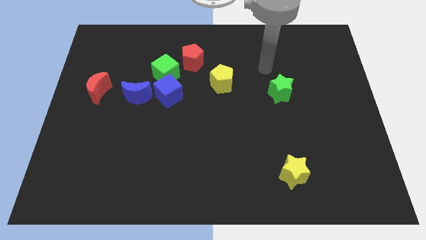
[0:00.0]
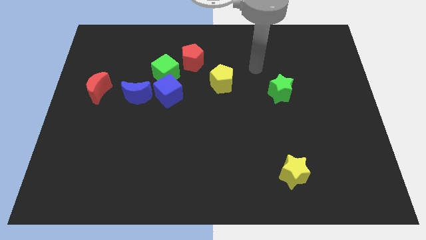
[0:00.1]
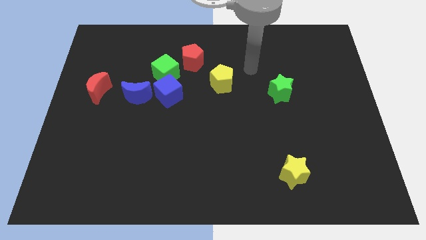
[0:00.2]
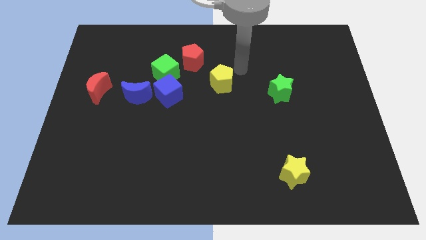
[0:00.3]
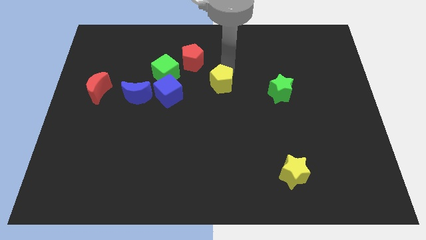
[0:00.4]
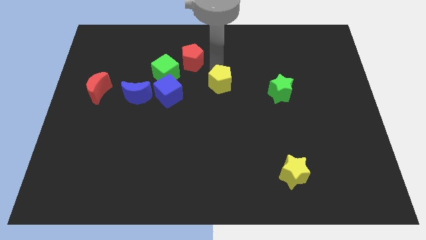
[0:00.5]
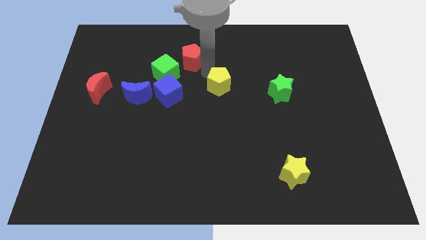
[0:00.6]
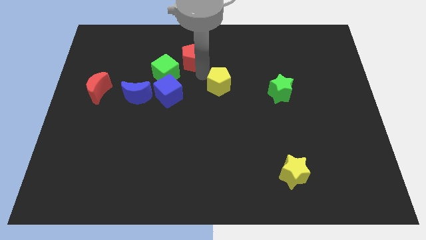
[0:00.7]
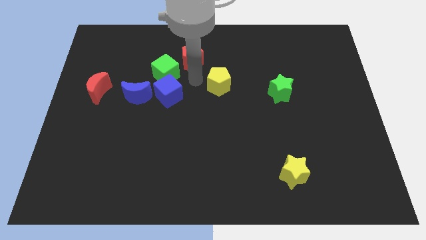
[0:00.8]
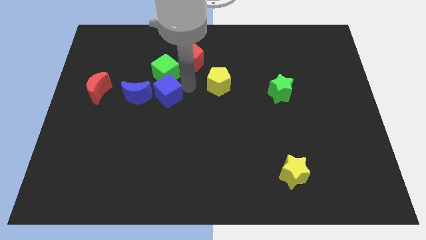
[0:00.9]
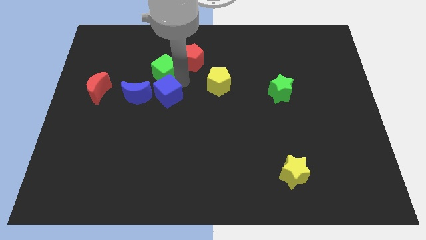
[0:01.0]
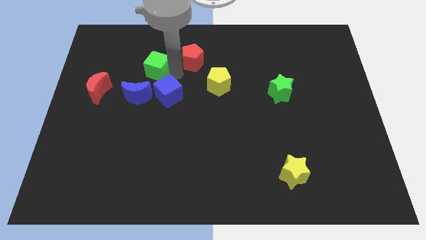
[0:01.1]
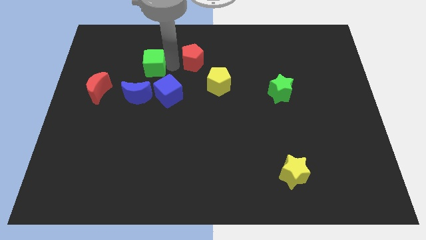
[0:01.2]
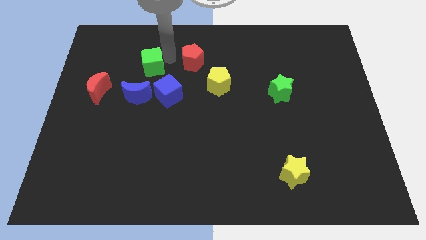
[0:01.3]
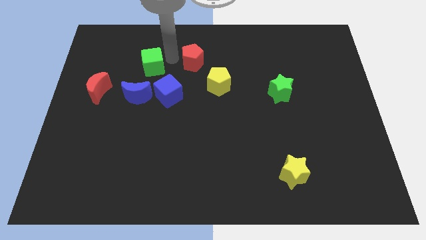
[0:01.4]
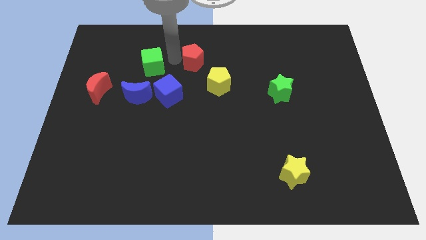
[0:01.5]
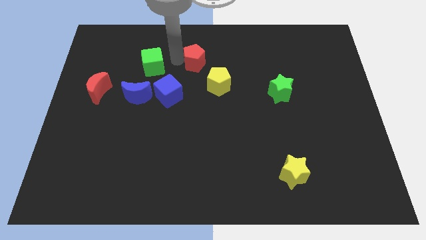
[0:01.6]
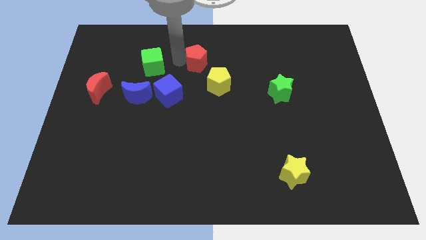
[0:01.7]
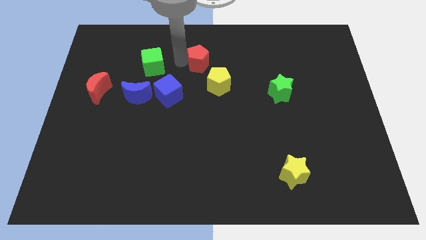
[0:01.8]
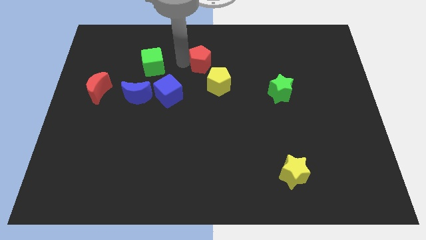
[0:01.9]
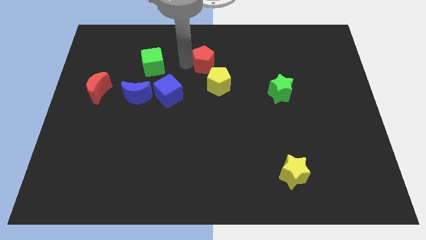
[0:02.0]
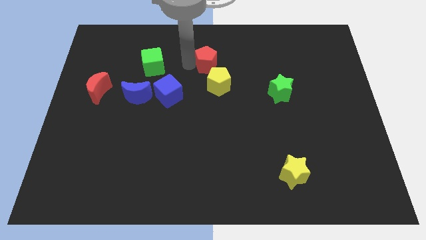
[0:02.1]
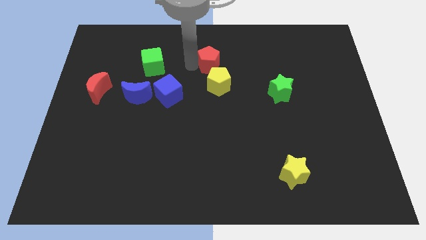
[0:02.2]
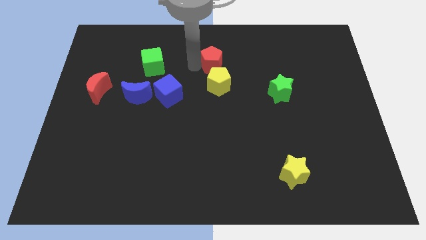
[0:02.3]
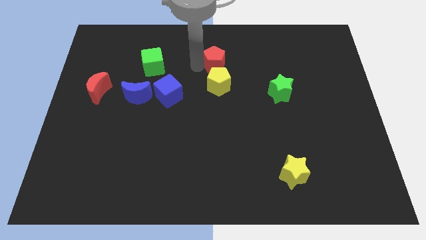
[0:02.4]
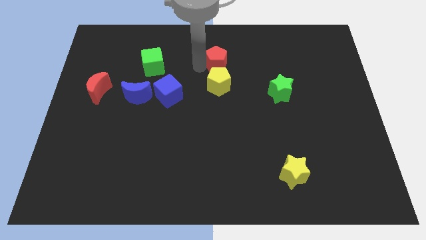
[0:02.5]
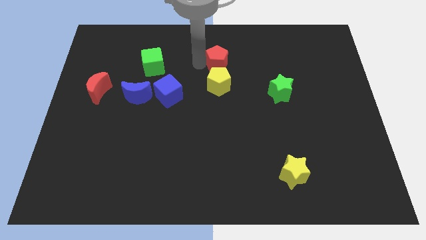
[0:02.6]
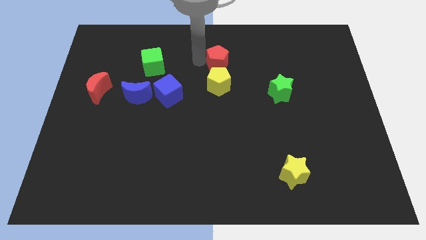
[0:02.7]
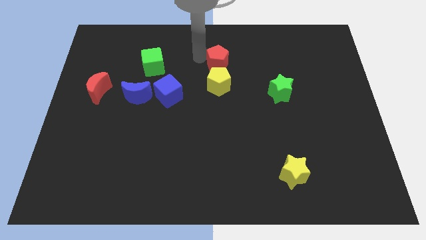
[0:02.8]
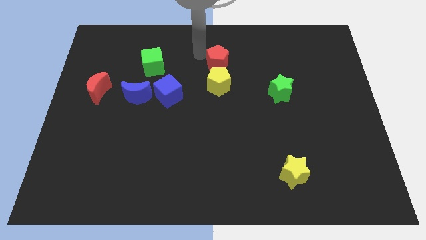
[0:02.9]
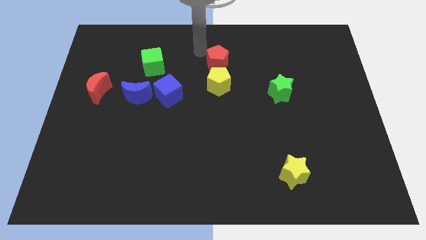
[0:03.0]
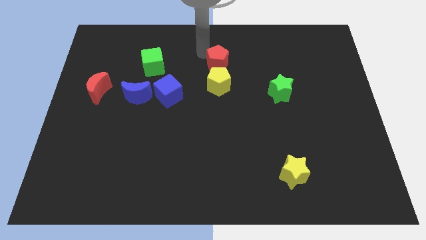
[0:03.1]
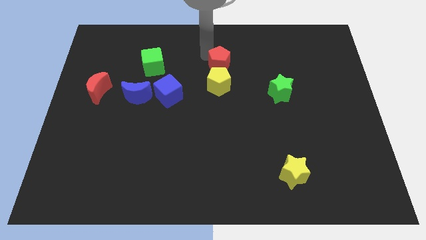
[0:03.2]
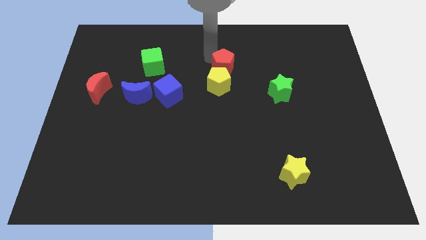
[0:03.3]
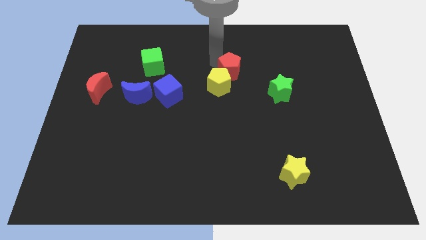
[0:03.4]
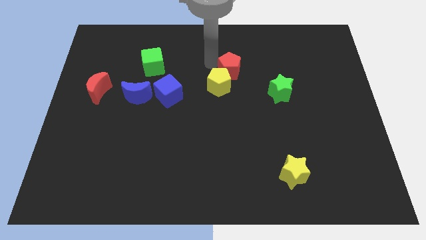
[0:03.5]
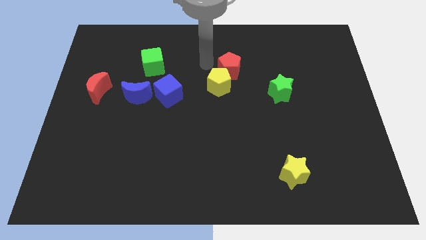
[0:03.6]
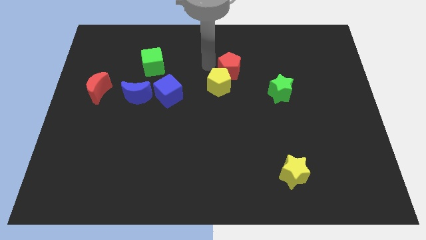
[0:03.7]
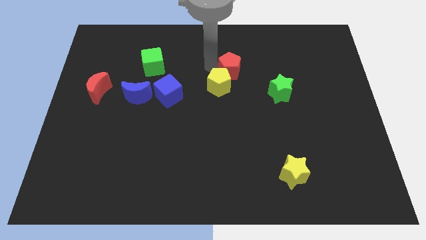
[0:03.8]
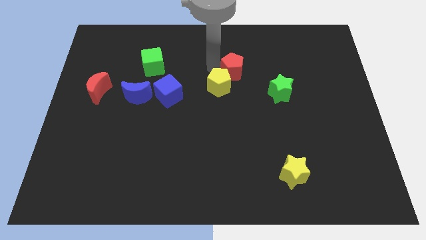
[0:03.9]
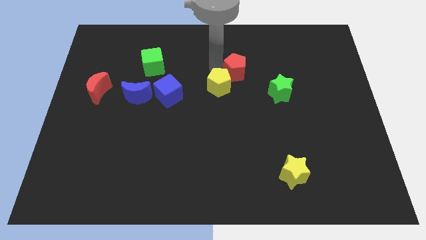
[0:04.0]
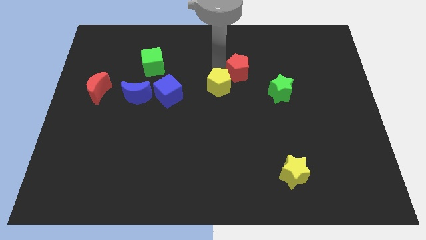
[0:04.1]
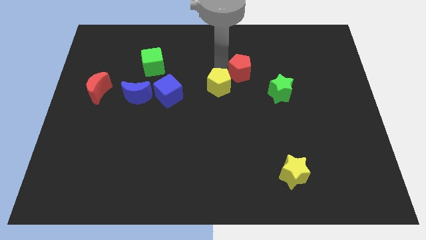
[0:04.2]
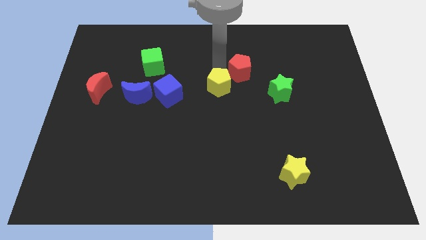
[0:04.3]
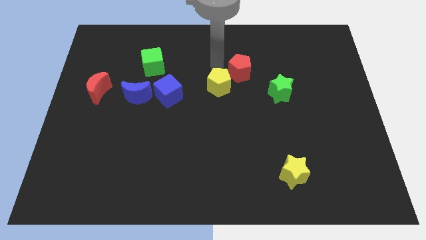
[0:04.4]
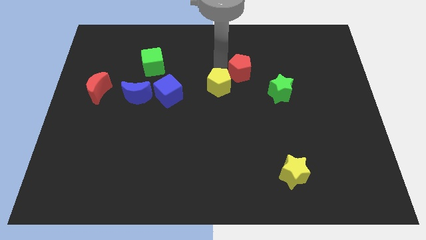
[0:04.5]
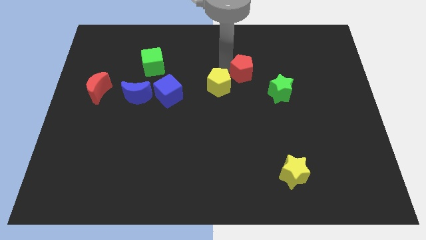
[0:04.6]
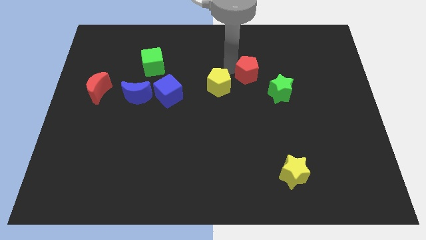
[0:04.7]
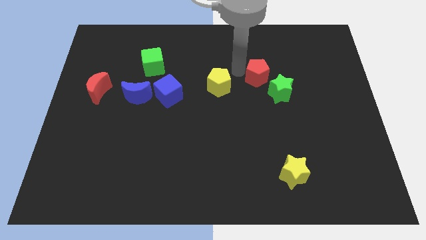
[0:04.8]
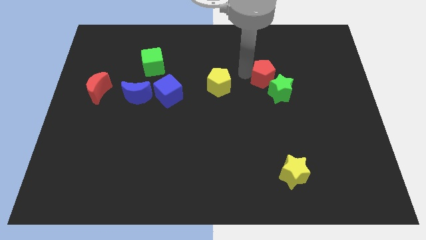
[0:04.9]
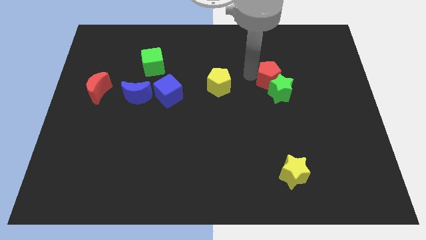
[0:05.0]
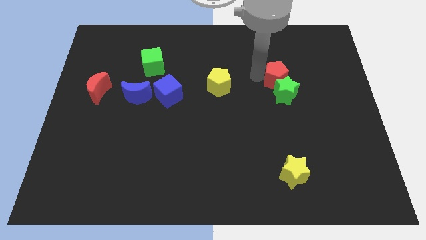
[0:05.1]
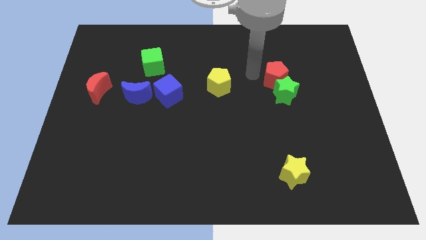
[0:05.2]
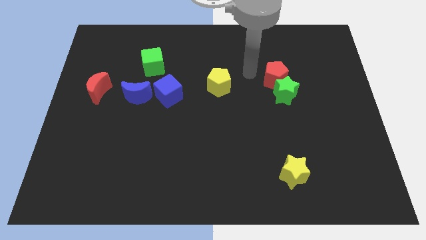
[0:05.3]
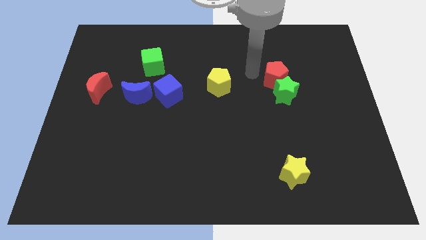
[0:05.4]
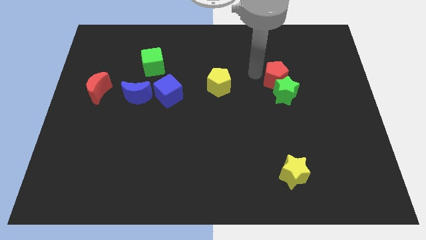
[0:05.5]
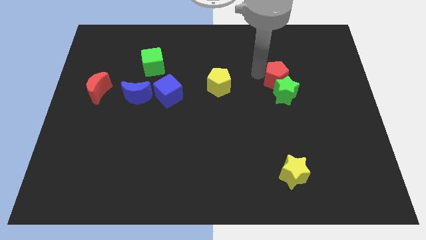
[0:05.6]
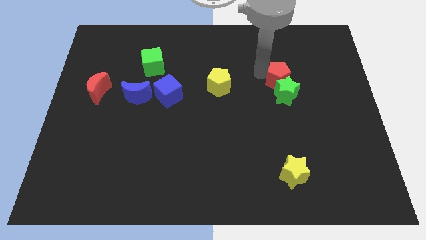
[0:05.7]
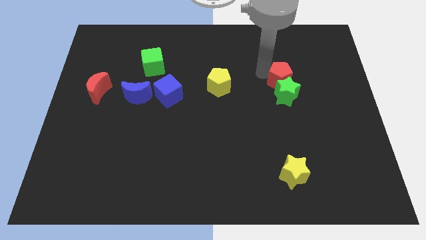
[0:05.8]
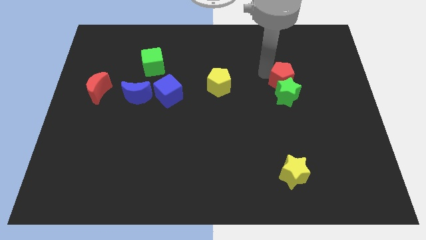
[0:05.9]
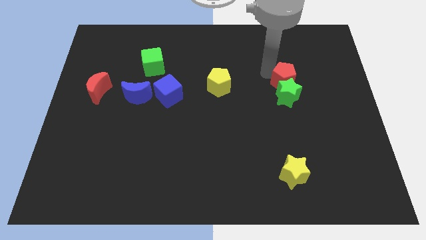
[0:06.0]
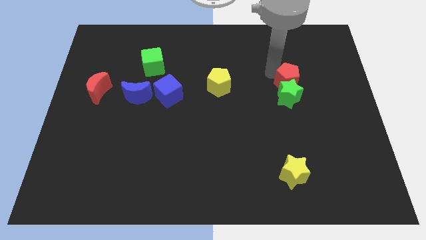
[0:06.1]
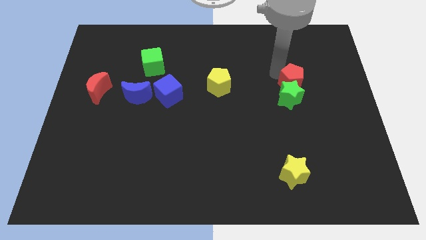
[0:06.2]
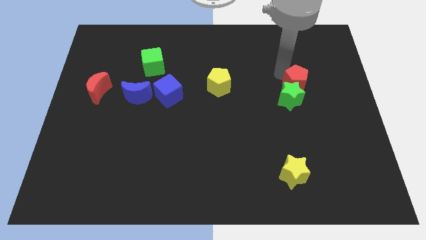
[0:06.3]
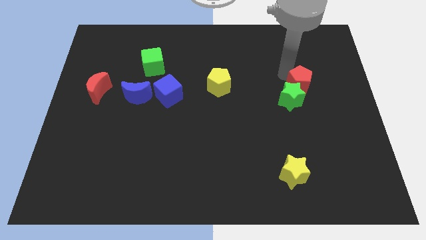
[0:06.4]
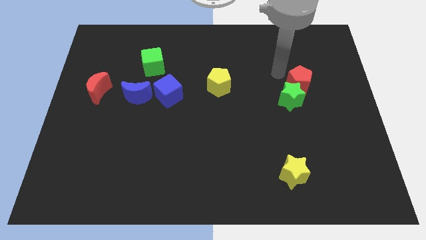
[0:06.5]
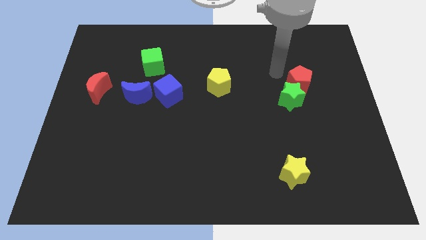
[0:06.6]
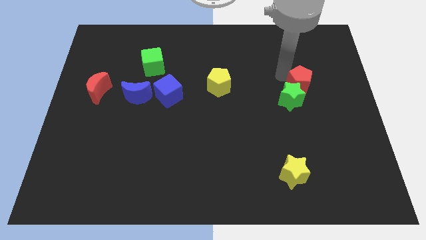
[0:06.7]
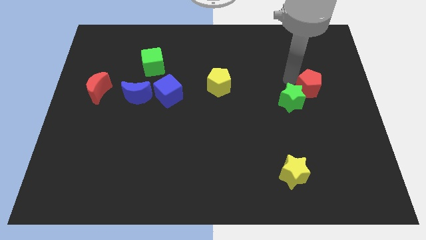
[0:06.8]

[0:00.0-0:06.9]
put the red pentagon just right of the green star

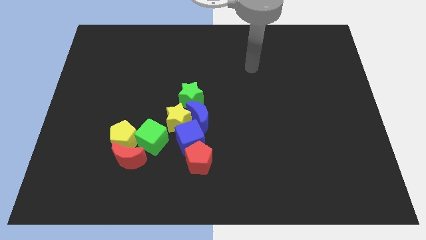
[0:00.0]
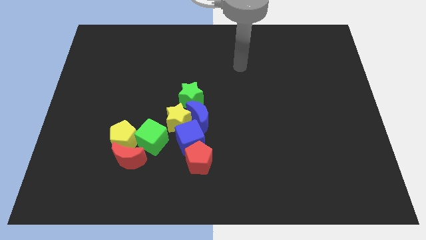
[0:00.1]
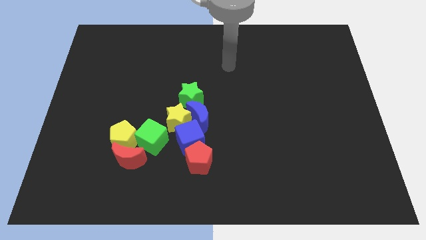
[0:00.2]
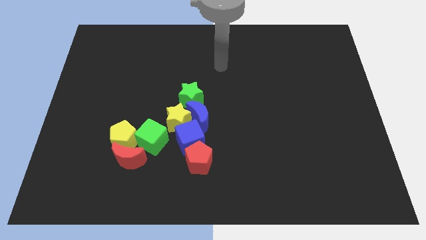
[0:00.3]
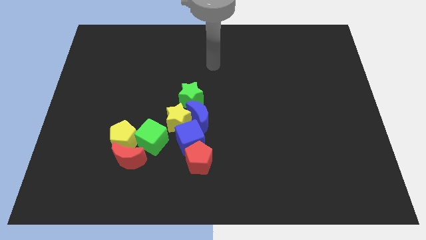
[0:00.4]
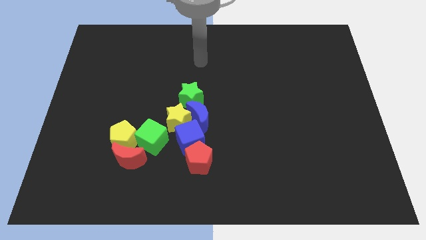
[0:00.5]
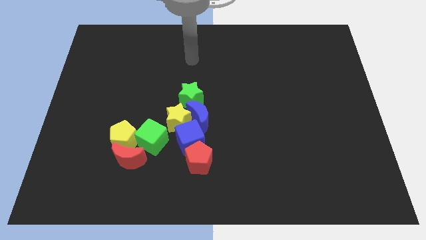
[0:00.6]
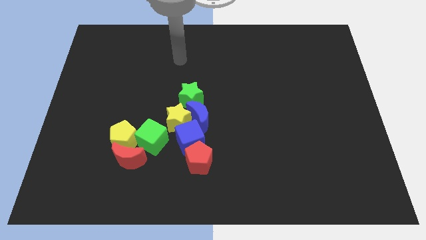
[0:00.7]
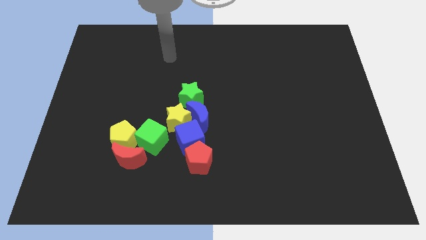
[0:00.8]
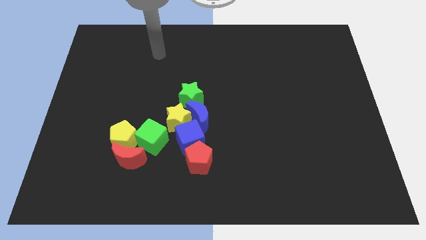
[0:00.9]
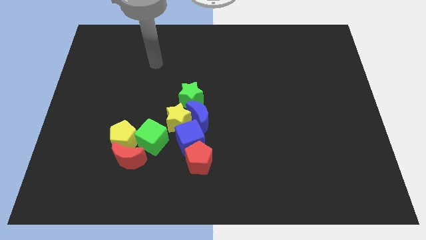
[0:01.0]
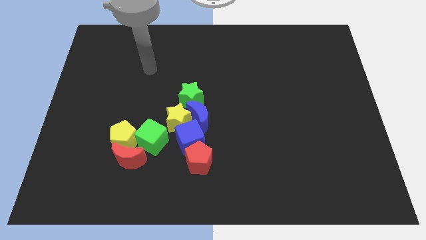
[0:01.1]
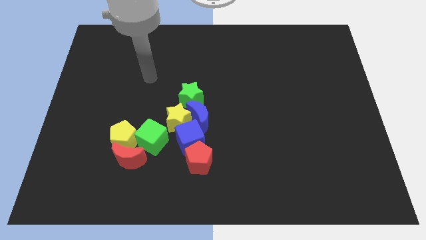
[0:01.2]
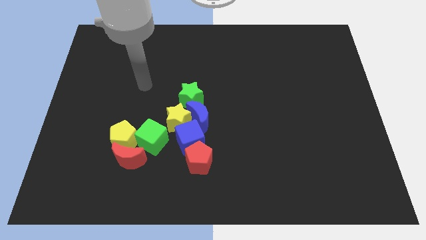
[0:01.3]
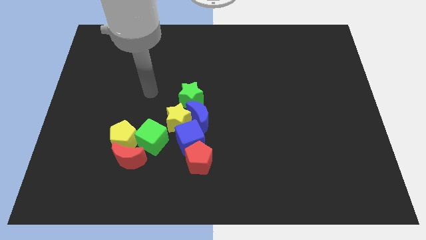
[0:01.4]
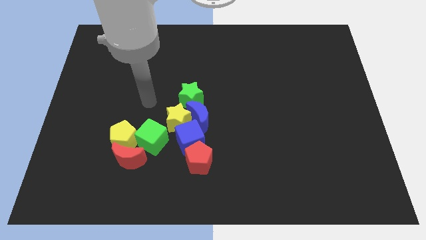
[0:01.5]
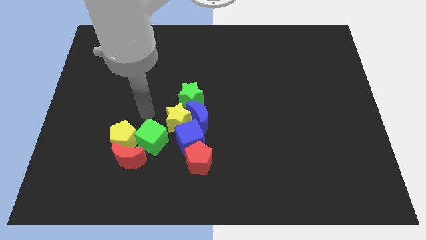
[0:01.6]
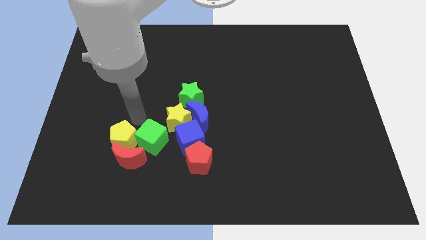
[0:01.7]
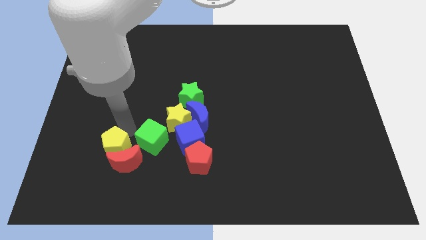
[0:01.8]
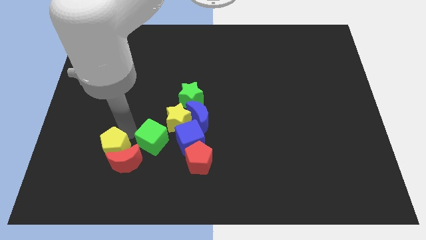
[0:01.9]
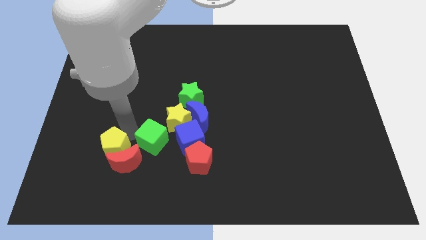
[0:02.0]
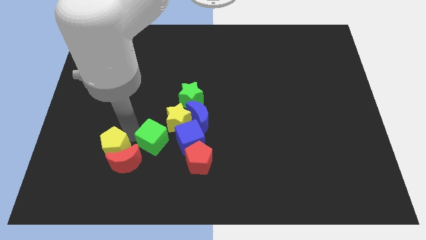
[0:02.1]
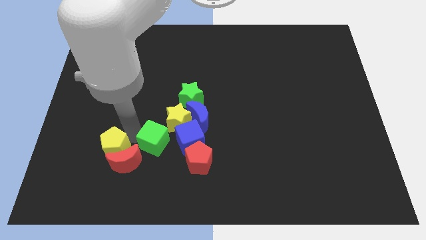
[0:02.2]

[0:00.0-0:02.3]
put the green cube to the bottom of the yellow star
